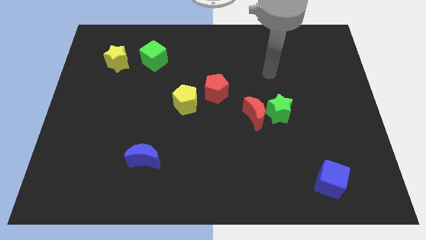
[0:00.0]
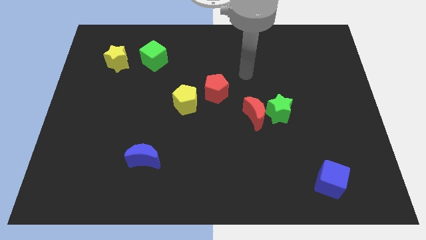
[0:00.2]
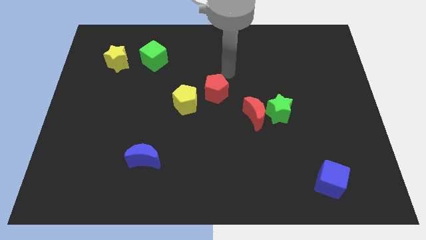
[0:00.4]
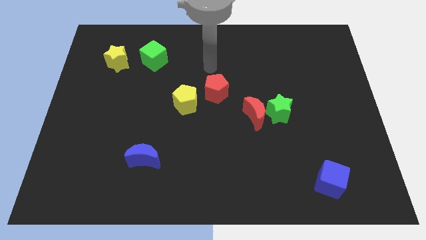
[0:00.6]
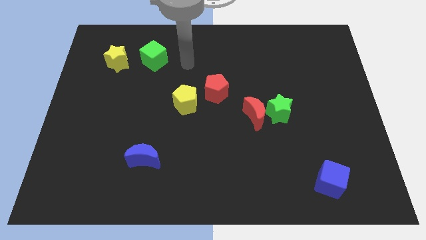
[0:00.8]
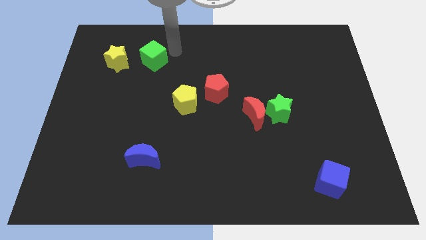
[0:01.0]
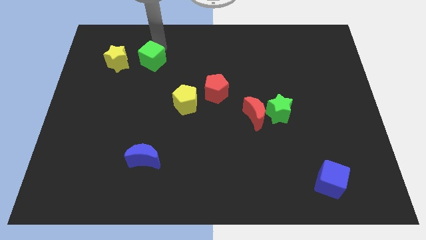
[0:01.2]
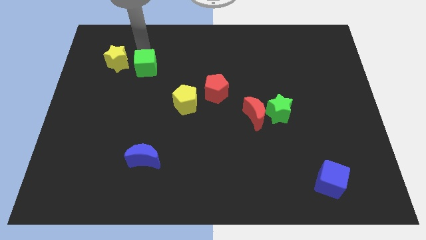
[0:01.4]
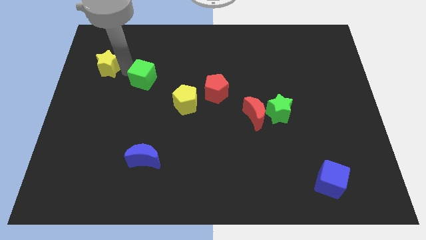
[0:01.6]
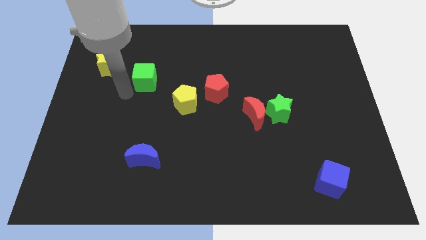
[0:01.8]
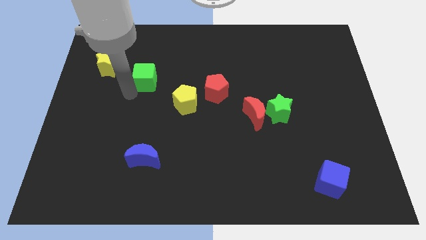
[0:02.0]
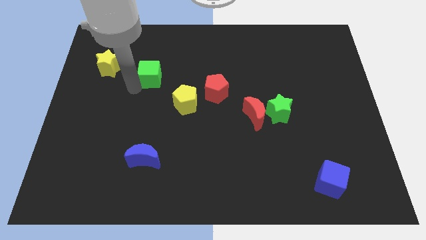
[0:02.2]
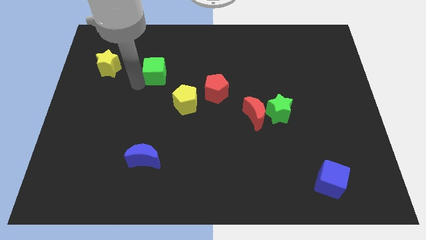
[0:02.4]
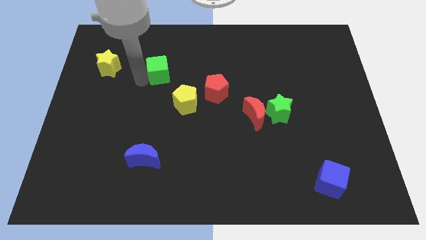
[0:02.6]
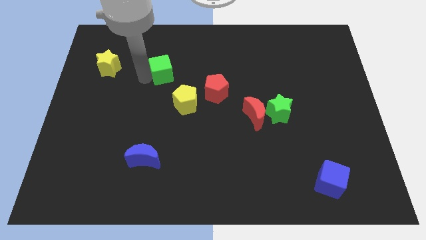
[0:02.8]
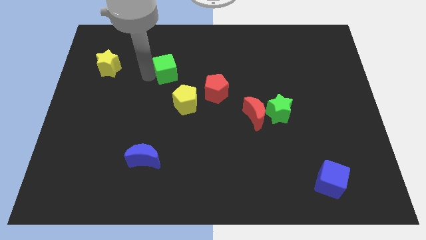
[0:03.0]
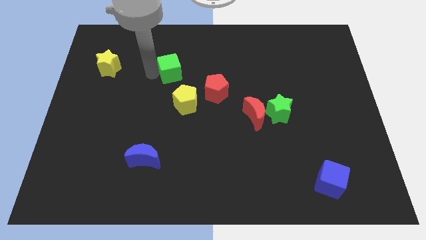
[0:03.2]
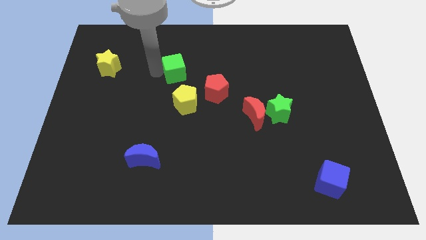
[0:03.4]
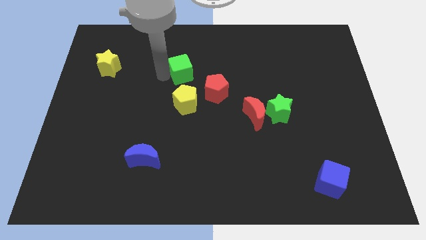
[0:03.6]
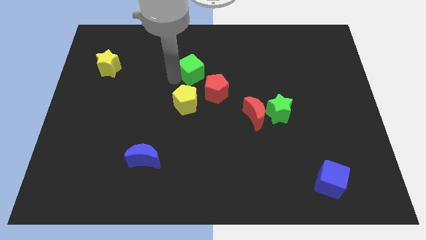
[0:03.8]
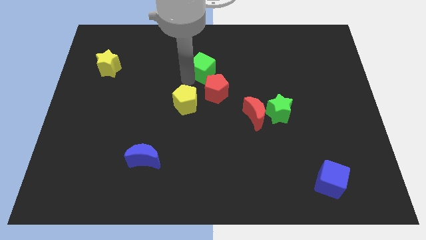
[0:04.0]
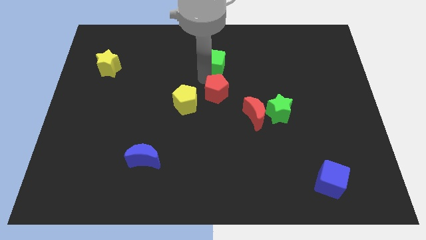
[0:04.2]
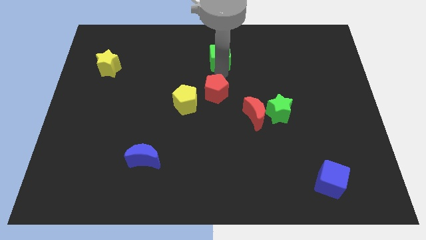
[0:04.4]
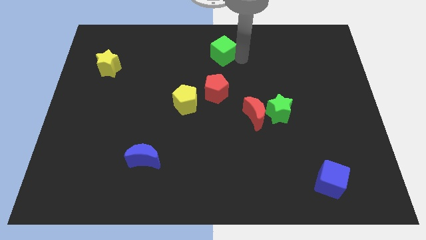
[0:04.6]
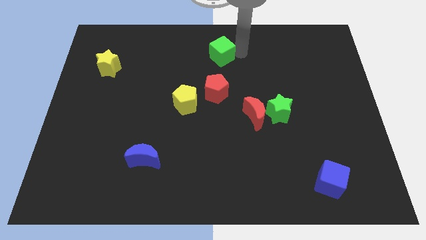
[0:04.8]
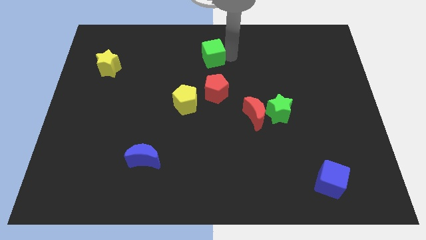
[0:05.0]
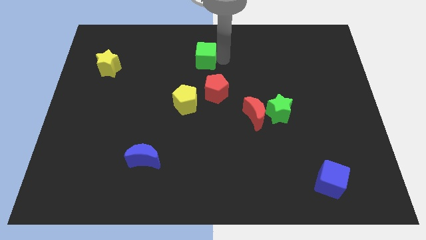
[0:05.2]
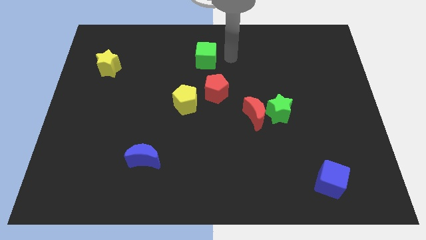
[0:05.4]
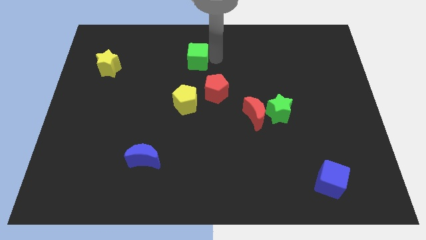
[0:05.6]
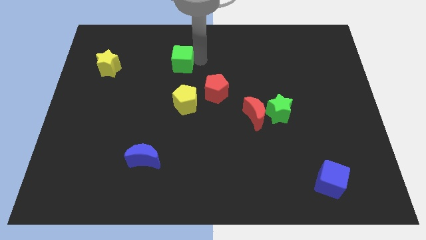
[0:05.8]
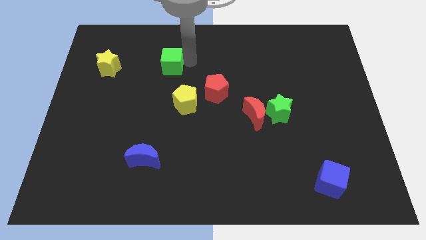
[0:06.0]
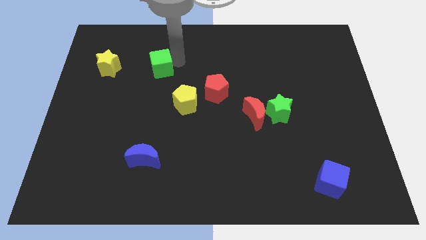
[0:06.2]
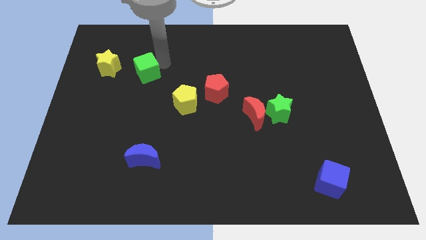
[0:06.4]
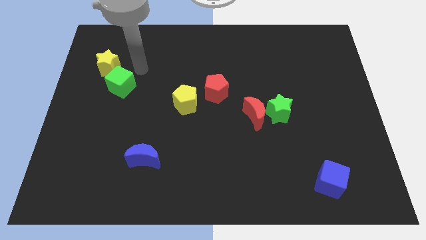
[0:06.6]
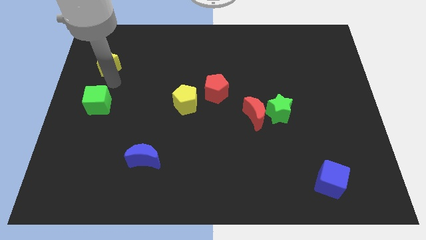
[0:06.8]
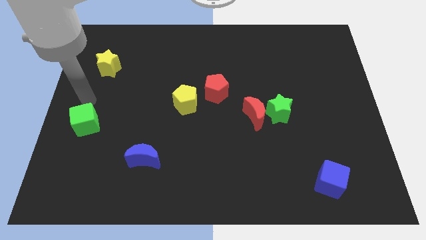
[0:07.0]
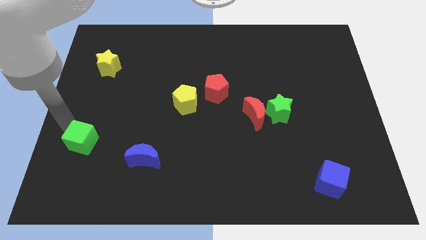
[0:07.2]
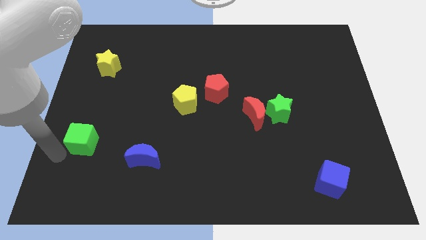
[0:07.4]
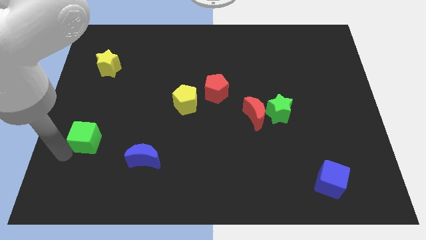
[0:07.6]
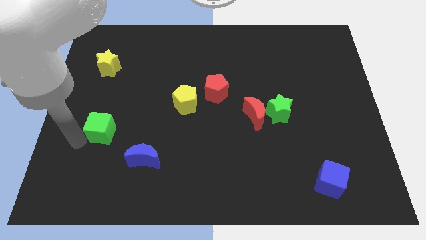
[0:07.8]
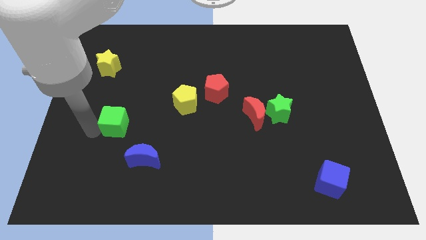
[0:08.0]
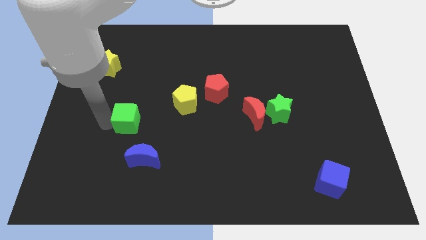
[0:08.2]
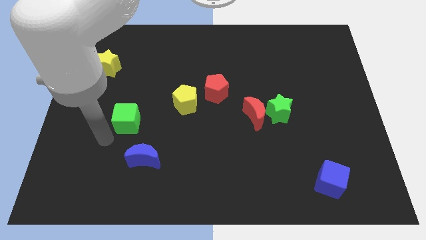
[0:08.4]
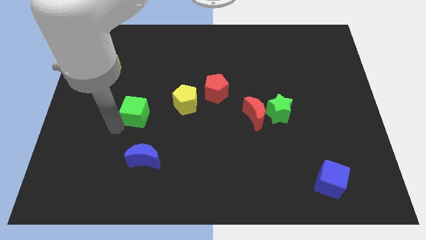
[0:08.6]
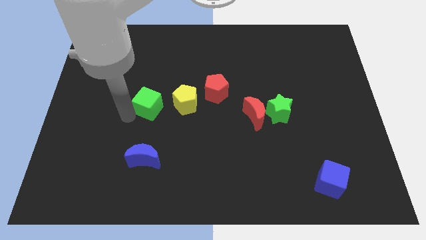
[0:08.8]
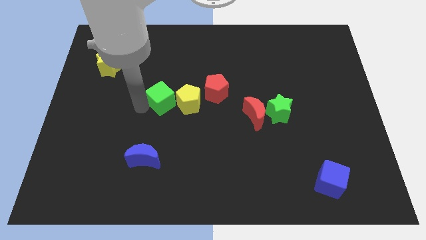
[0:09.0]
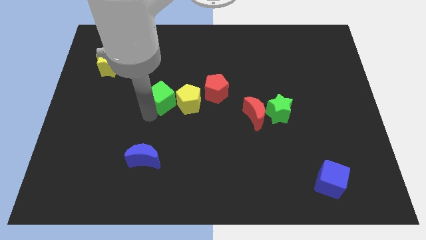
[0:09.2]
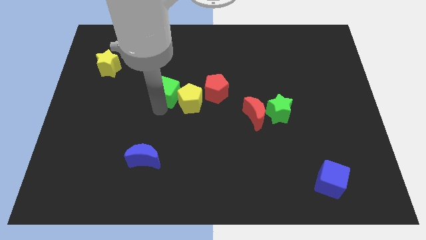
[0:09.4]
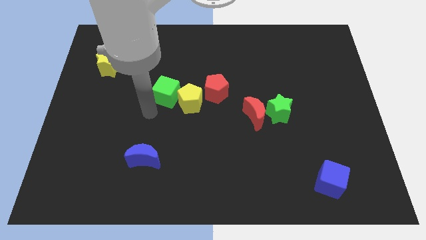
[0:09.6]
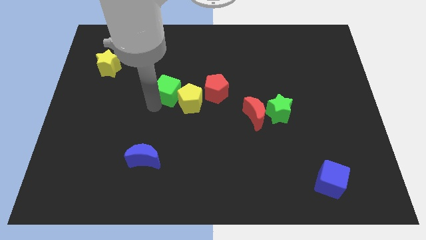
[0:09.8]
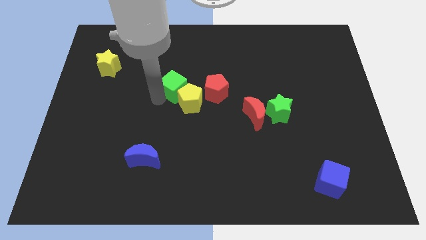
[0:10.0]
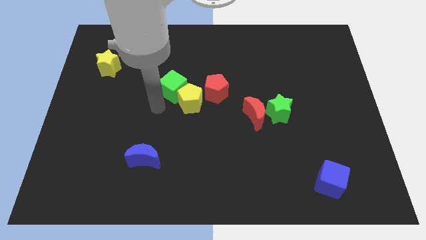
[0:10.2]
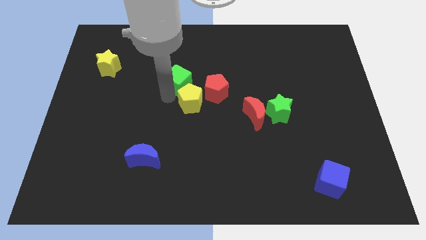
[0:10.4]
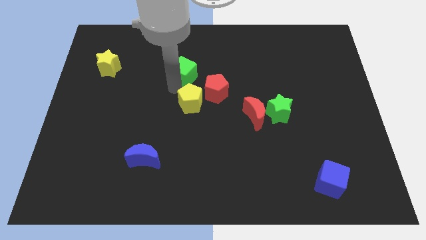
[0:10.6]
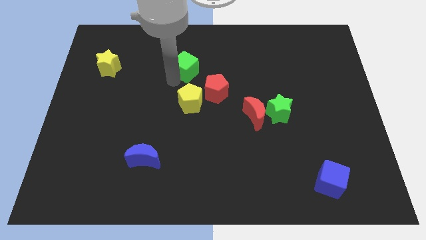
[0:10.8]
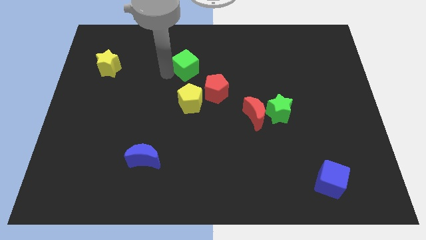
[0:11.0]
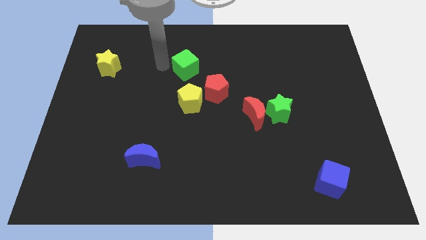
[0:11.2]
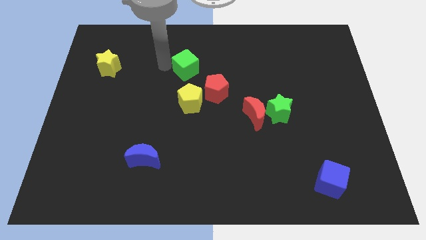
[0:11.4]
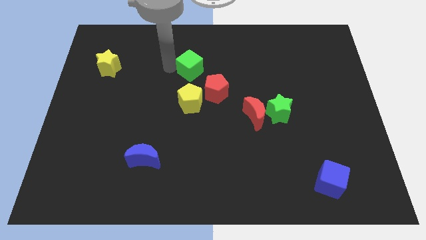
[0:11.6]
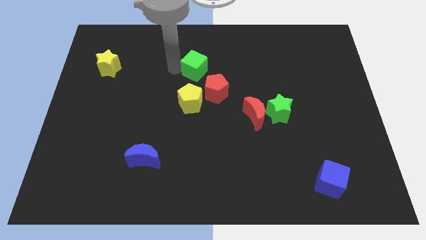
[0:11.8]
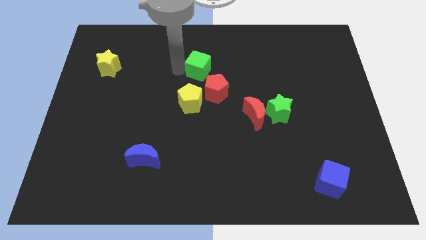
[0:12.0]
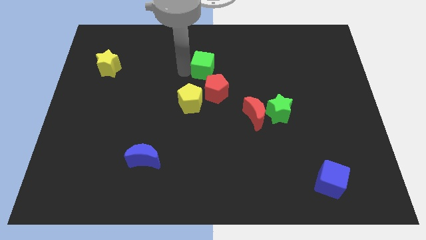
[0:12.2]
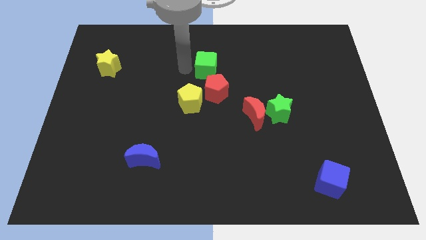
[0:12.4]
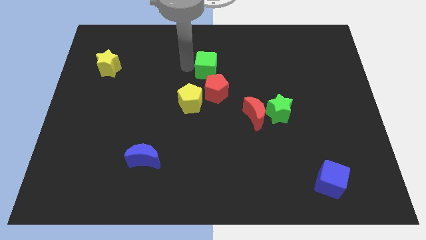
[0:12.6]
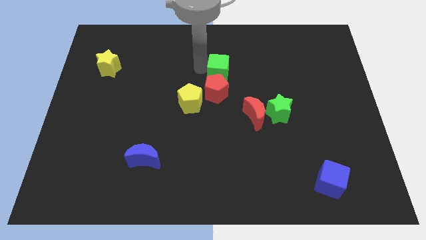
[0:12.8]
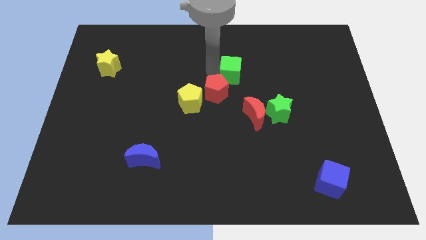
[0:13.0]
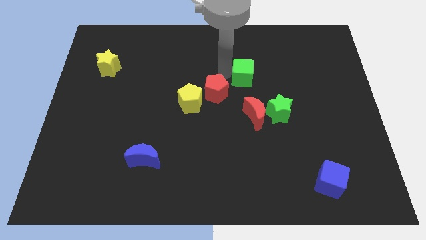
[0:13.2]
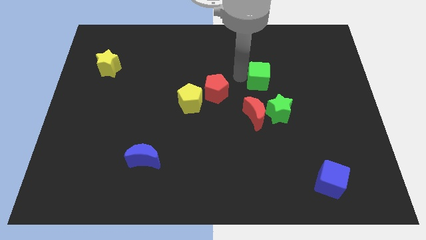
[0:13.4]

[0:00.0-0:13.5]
push the green cube to the top of the green star

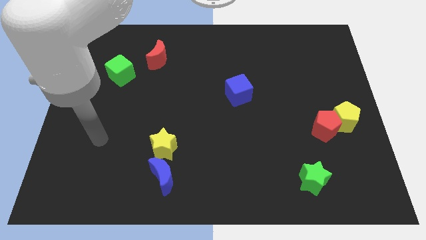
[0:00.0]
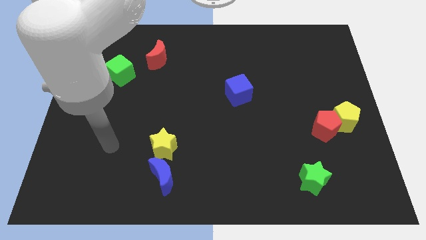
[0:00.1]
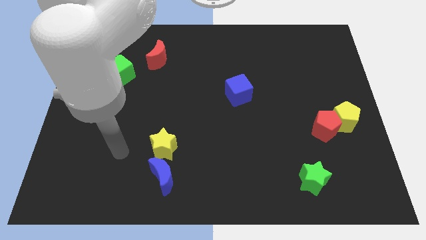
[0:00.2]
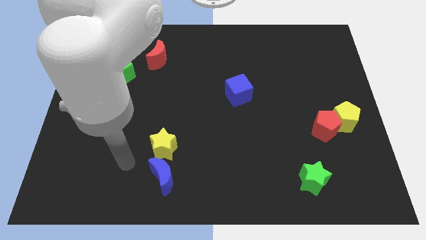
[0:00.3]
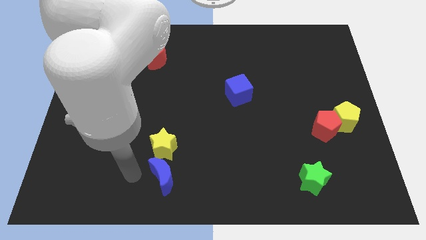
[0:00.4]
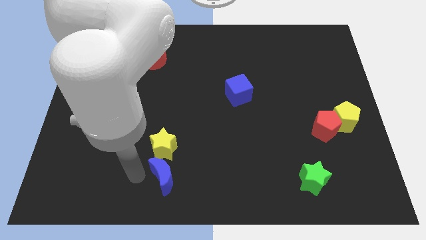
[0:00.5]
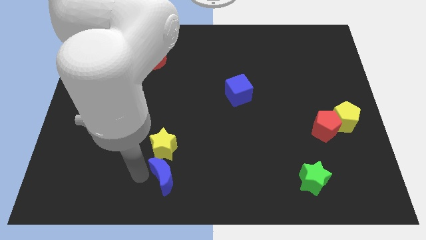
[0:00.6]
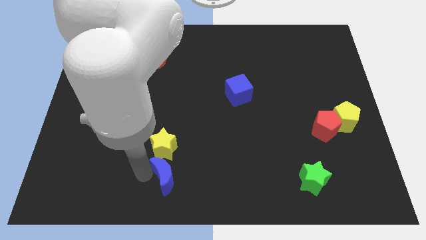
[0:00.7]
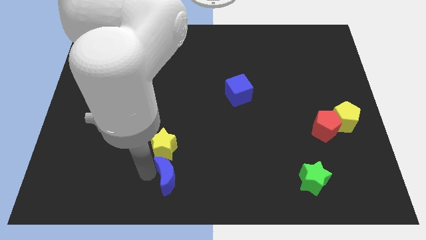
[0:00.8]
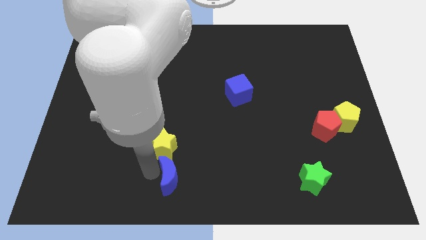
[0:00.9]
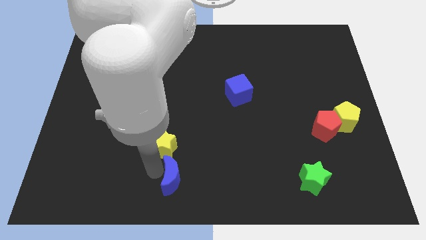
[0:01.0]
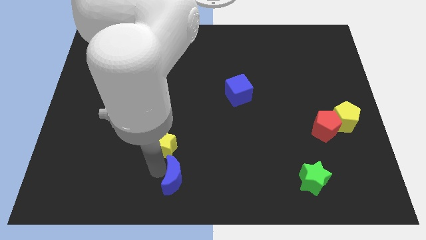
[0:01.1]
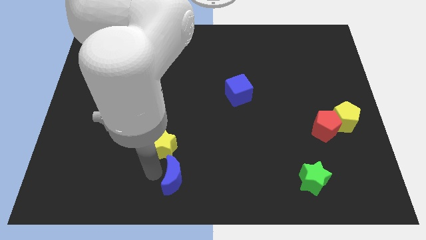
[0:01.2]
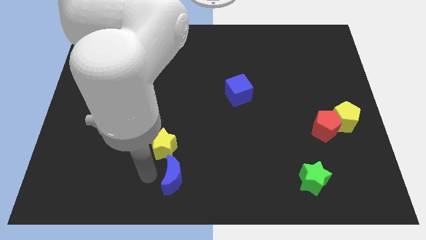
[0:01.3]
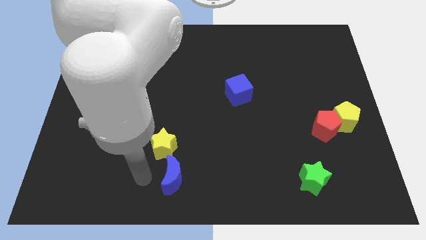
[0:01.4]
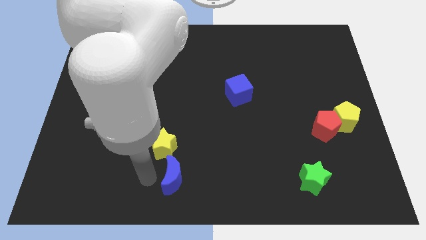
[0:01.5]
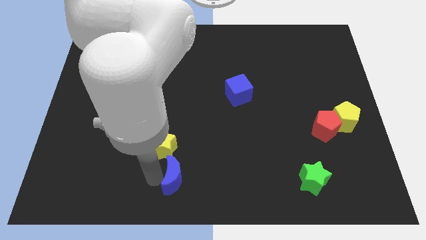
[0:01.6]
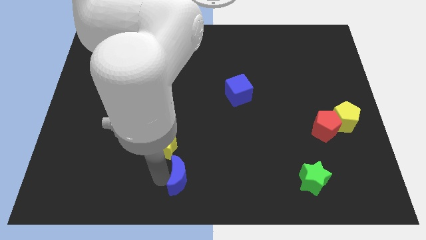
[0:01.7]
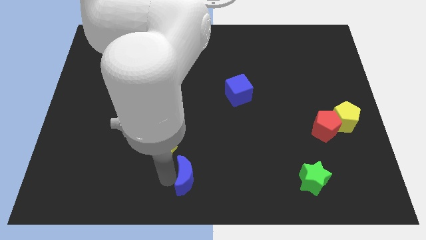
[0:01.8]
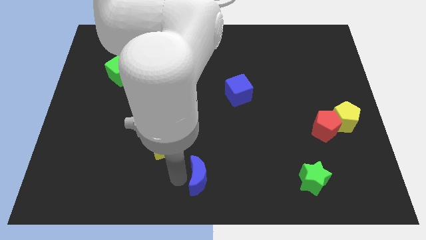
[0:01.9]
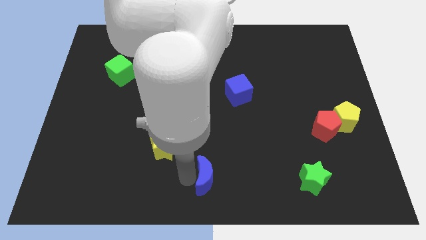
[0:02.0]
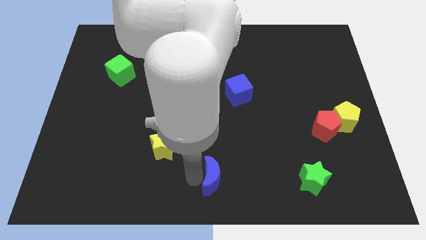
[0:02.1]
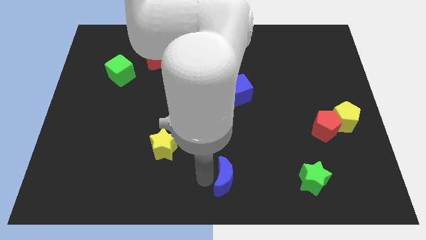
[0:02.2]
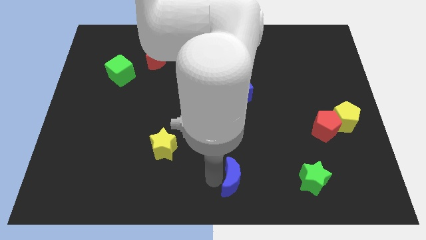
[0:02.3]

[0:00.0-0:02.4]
slide the blue moon to the left side of the green star
